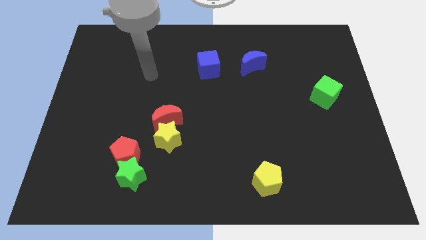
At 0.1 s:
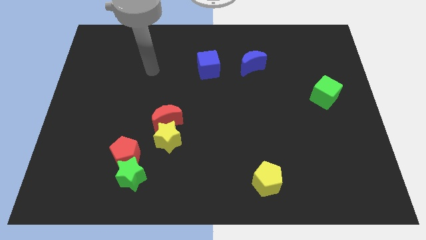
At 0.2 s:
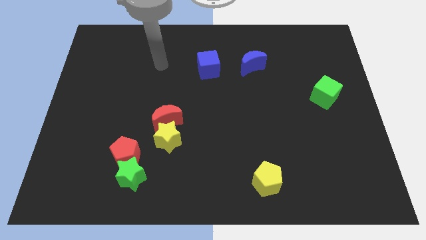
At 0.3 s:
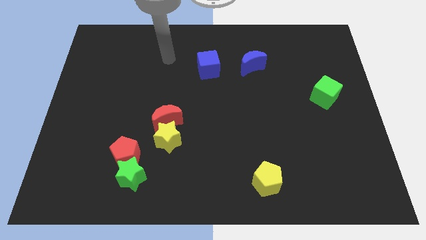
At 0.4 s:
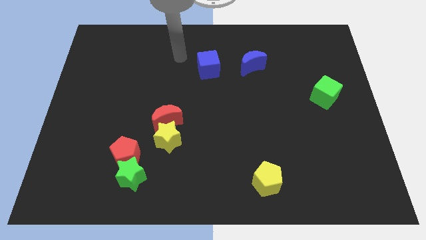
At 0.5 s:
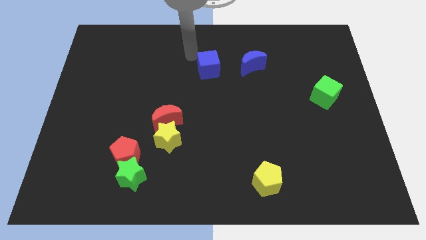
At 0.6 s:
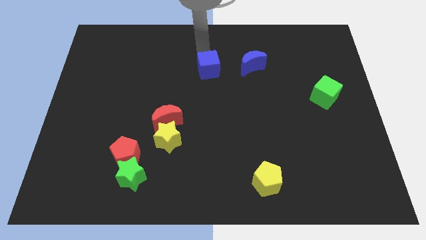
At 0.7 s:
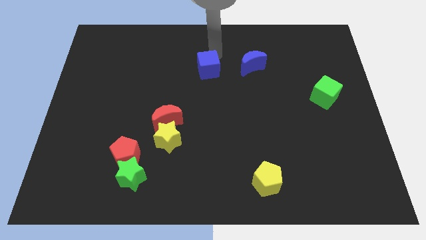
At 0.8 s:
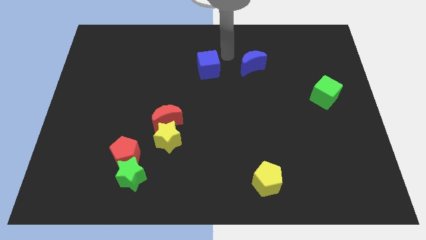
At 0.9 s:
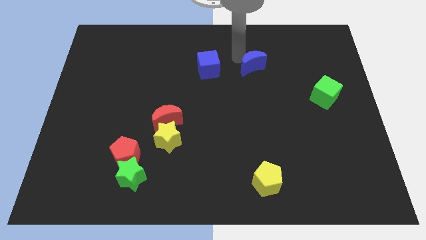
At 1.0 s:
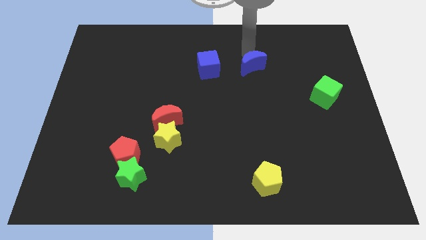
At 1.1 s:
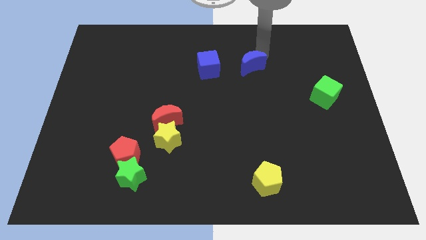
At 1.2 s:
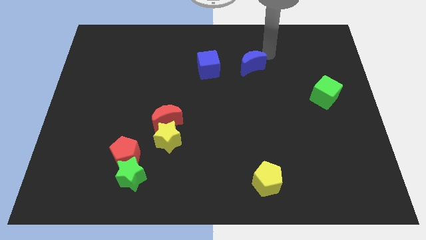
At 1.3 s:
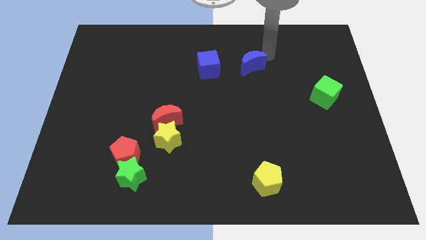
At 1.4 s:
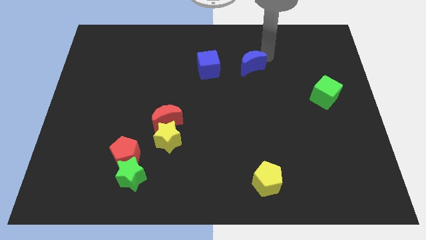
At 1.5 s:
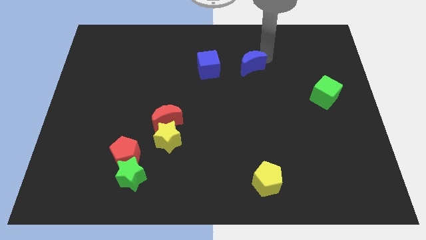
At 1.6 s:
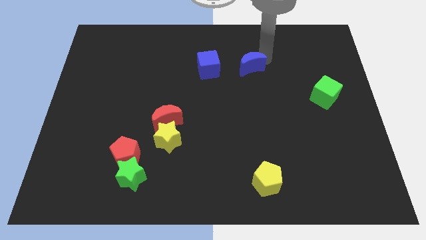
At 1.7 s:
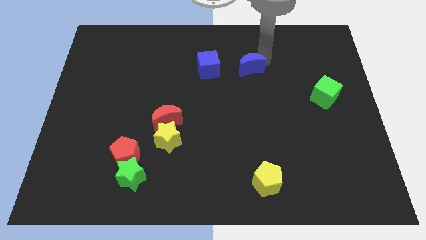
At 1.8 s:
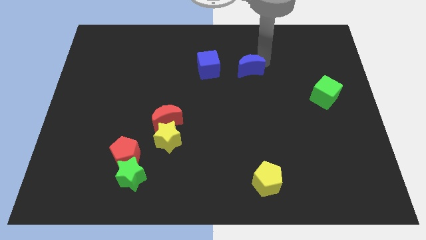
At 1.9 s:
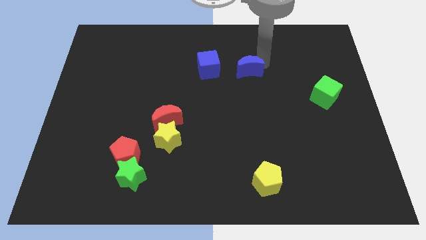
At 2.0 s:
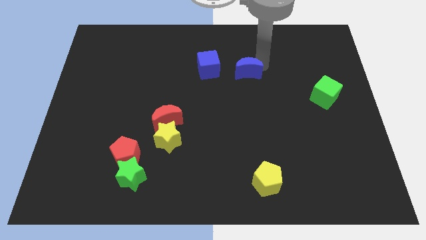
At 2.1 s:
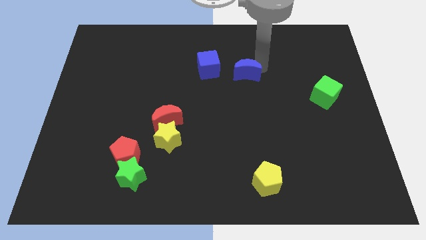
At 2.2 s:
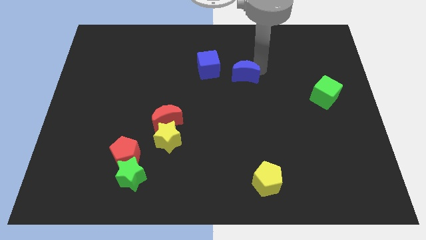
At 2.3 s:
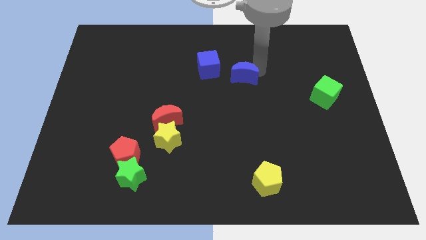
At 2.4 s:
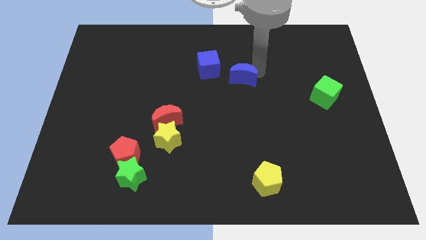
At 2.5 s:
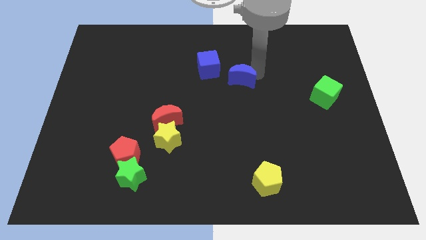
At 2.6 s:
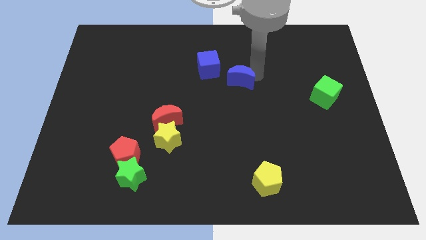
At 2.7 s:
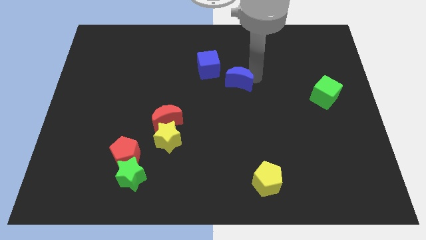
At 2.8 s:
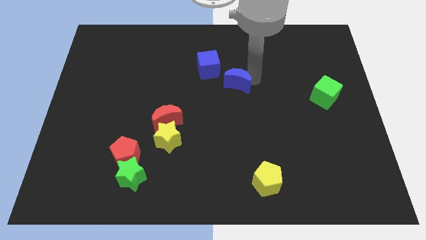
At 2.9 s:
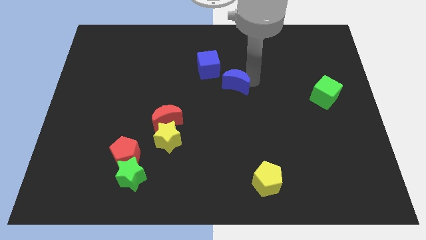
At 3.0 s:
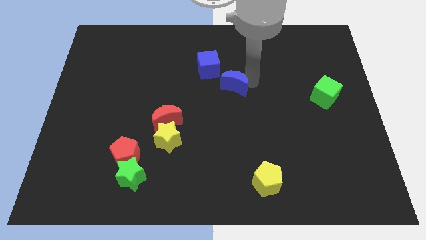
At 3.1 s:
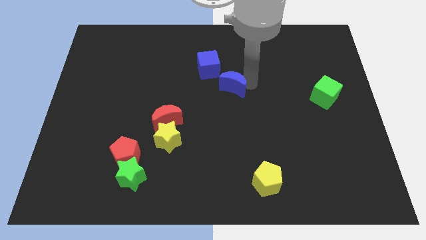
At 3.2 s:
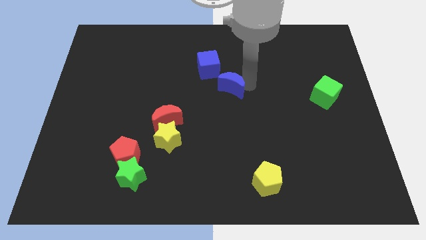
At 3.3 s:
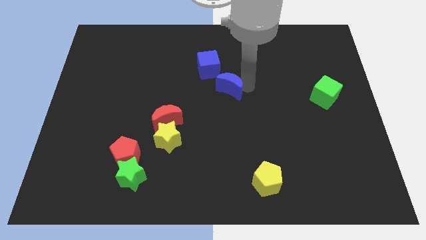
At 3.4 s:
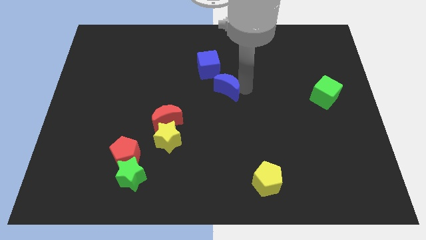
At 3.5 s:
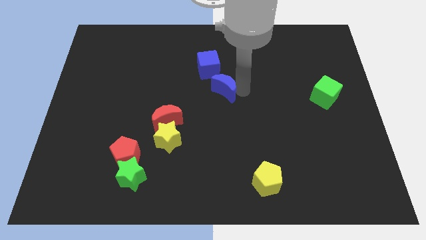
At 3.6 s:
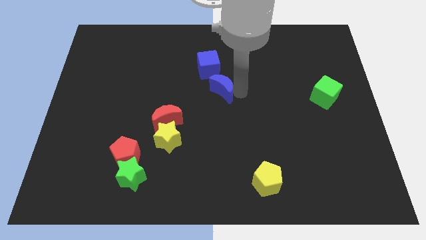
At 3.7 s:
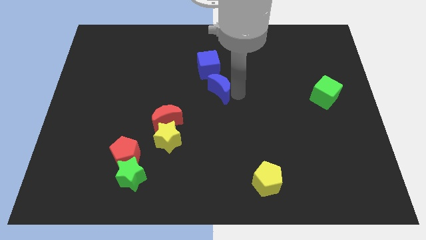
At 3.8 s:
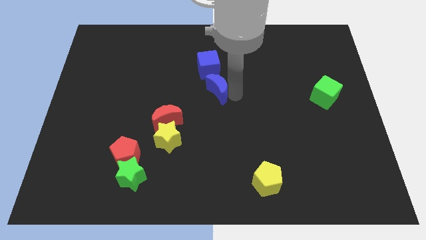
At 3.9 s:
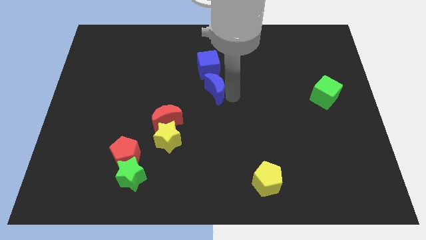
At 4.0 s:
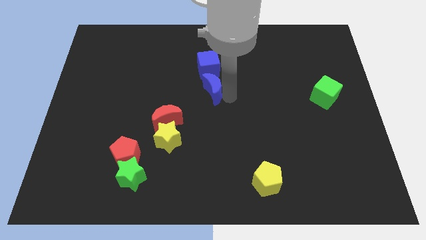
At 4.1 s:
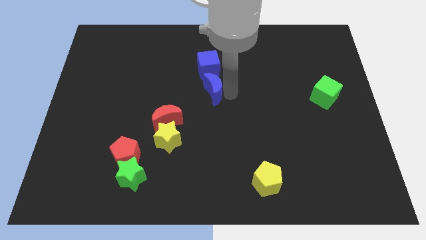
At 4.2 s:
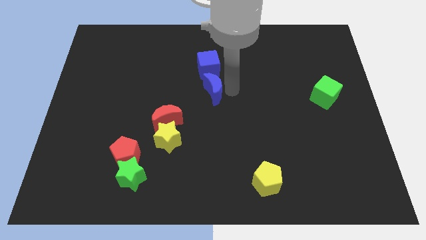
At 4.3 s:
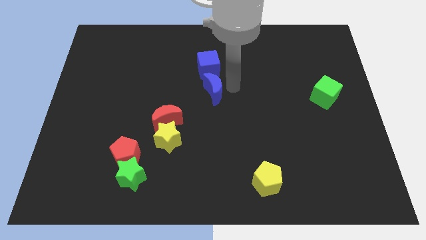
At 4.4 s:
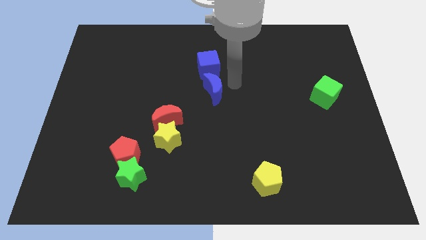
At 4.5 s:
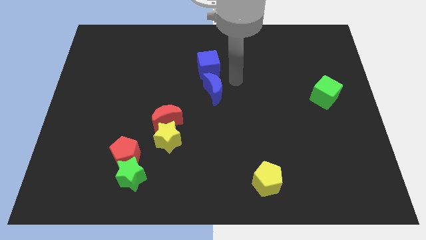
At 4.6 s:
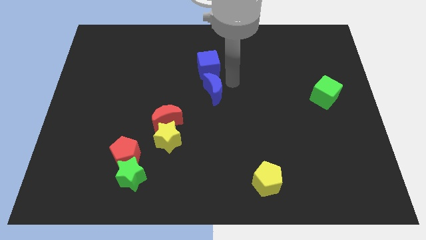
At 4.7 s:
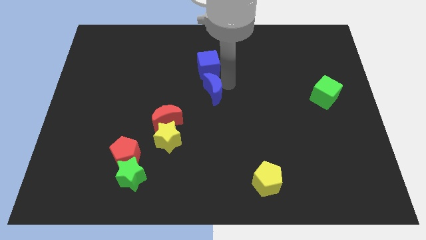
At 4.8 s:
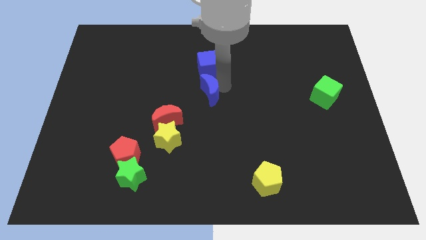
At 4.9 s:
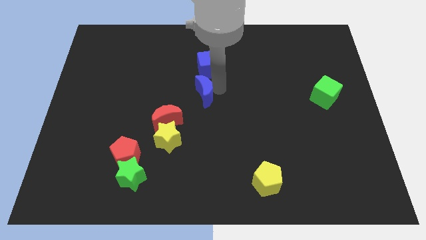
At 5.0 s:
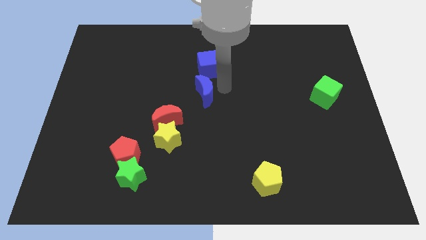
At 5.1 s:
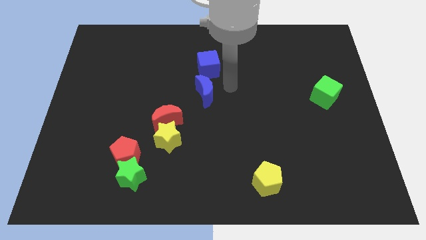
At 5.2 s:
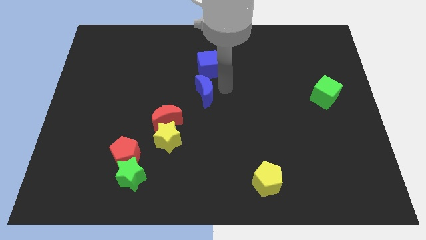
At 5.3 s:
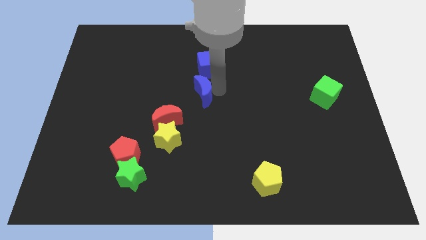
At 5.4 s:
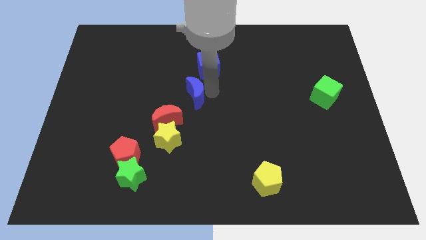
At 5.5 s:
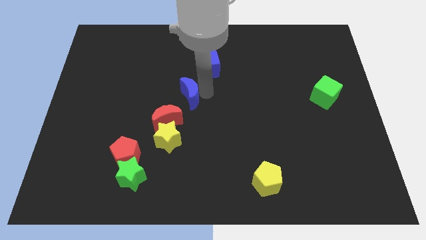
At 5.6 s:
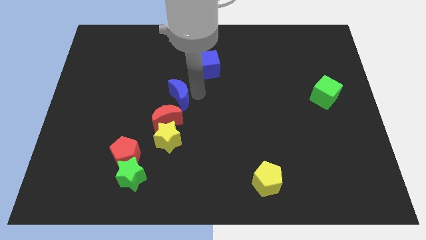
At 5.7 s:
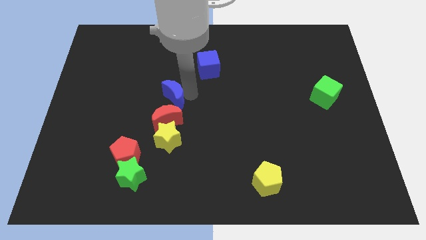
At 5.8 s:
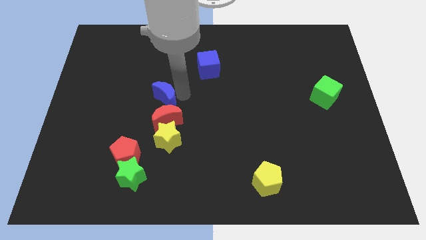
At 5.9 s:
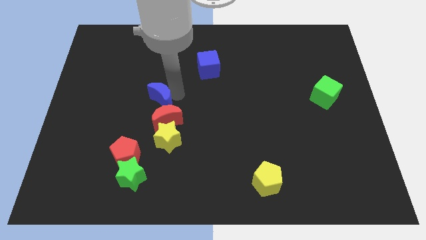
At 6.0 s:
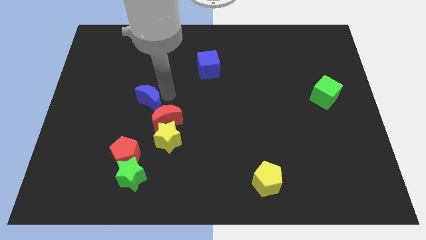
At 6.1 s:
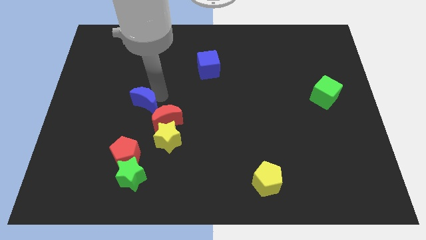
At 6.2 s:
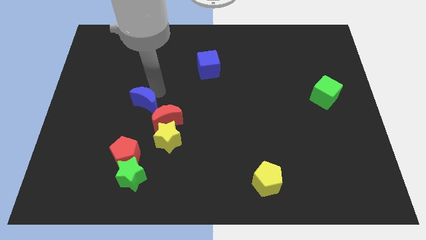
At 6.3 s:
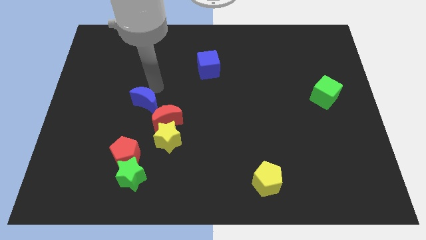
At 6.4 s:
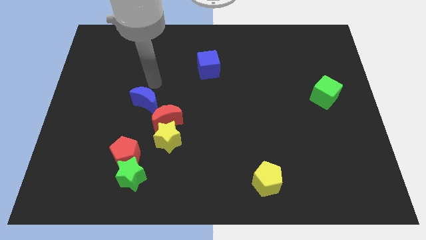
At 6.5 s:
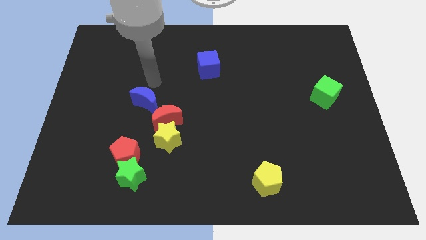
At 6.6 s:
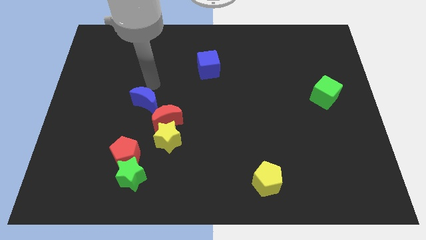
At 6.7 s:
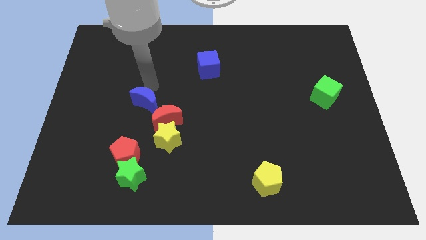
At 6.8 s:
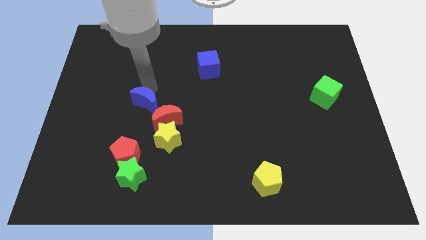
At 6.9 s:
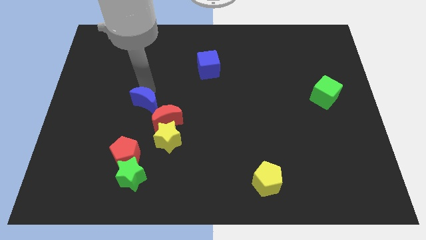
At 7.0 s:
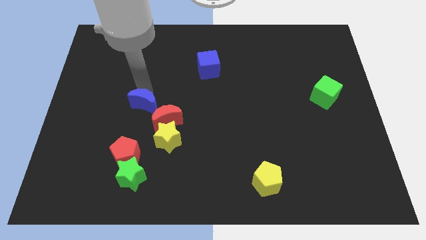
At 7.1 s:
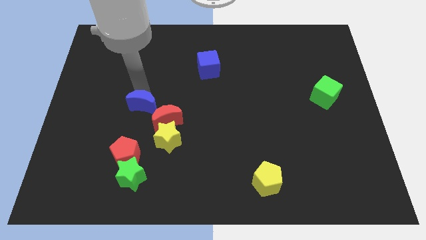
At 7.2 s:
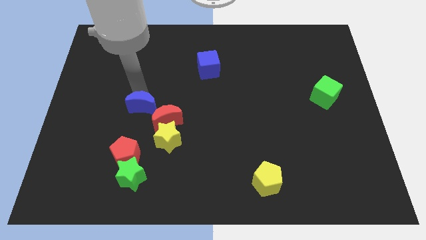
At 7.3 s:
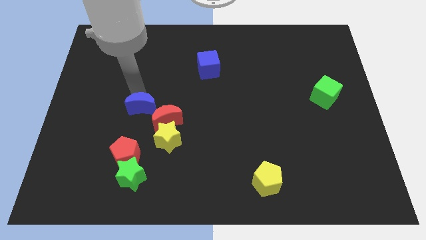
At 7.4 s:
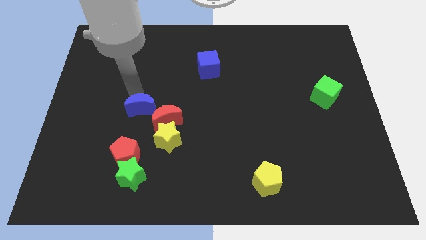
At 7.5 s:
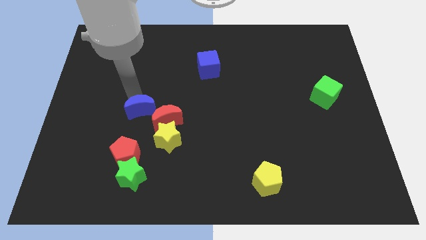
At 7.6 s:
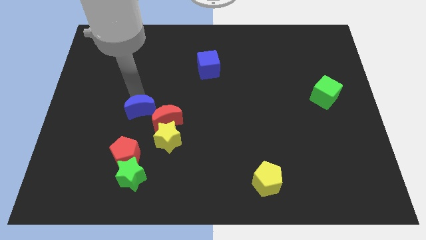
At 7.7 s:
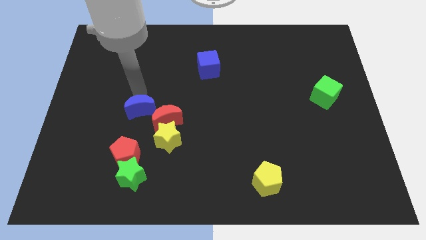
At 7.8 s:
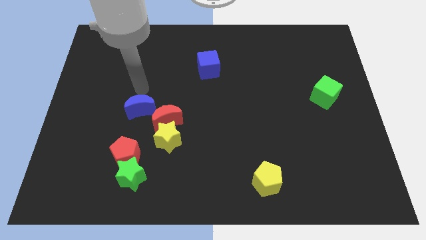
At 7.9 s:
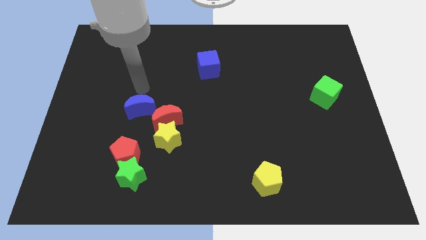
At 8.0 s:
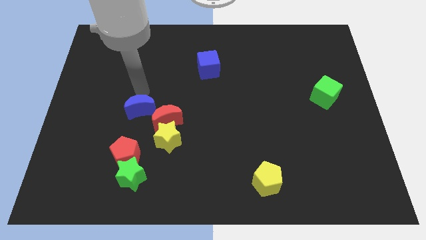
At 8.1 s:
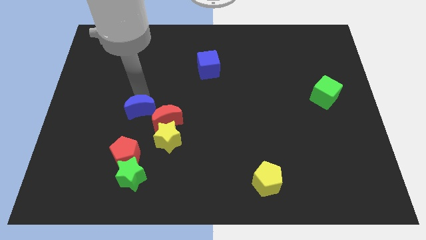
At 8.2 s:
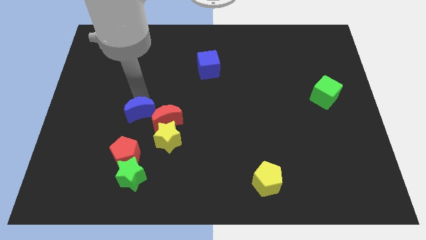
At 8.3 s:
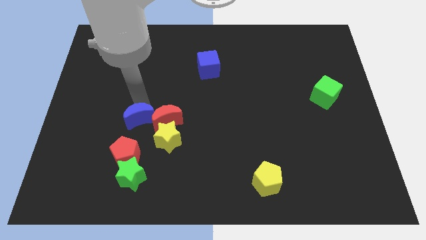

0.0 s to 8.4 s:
move the blue moon above the green star
